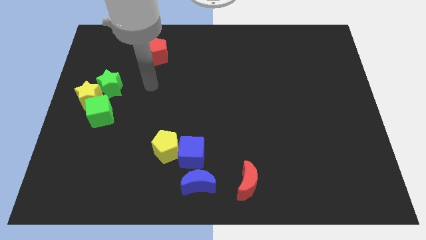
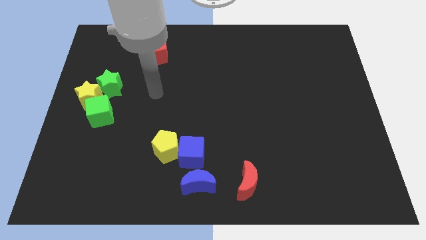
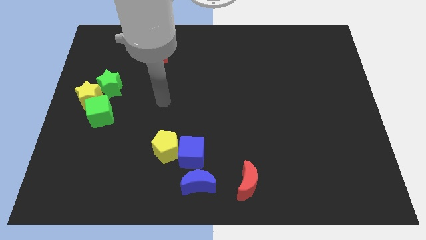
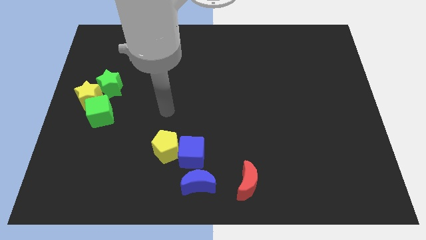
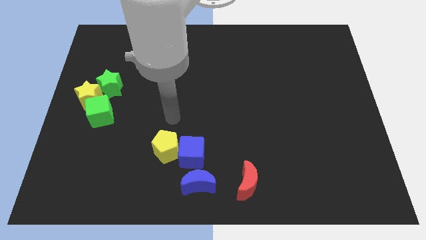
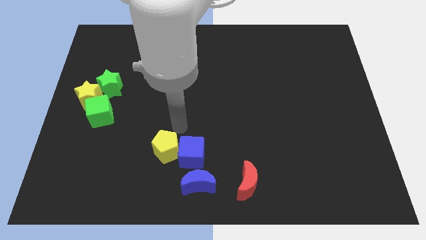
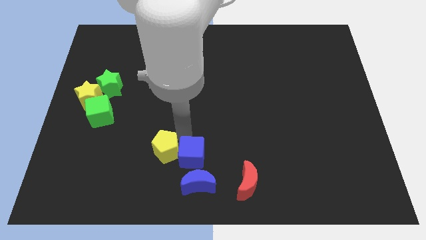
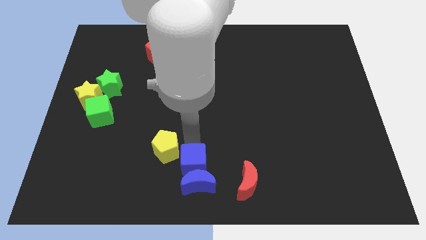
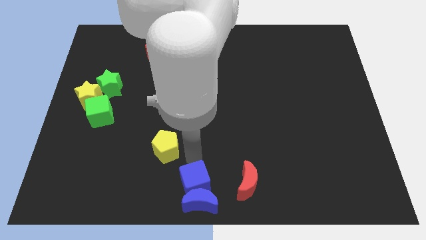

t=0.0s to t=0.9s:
pull the yellow pentagon apart from the blue cube

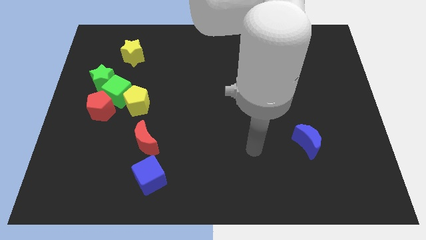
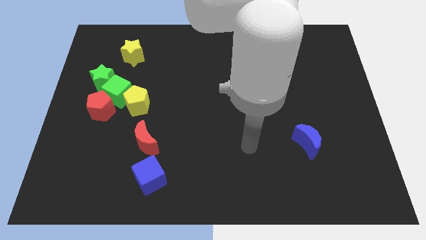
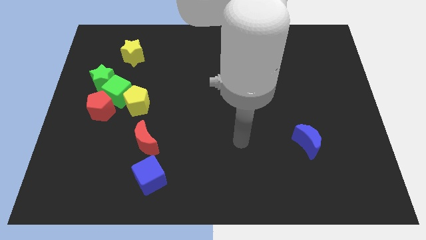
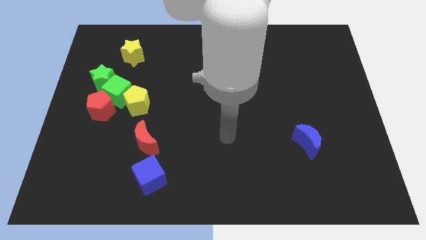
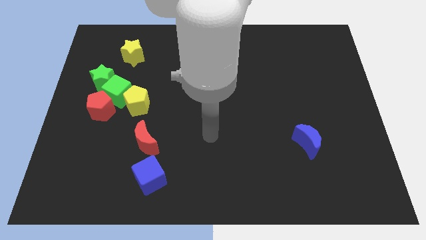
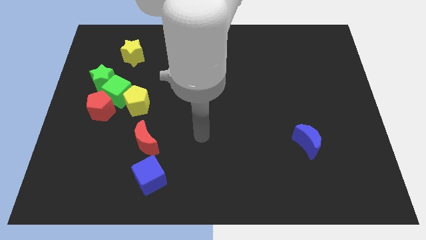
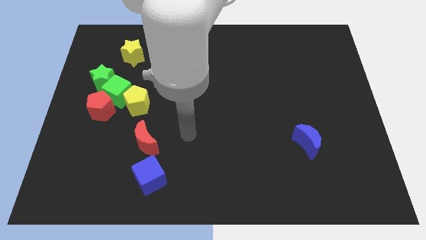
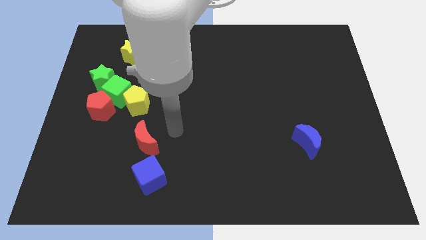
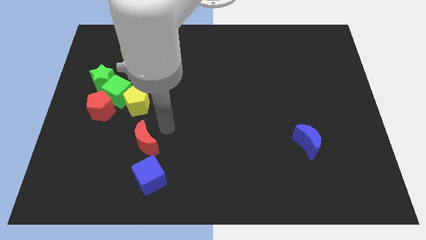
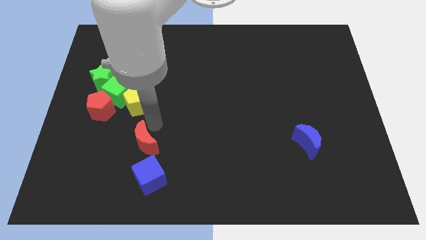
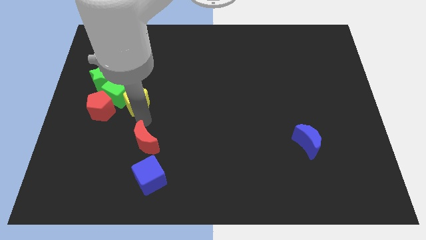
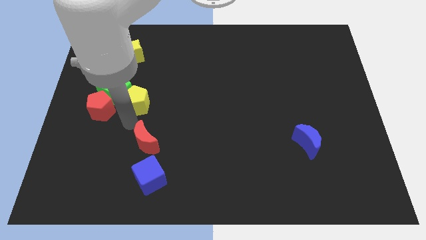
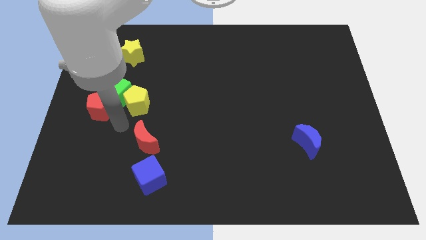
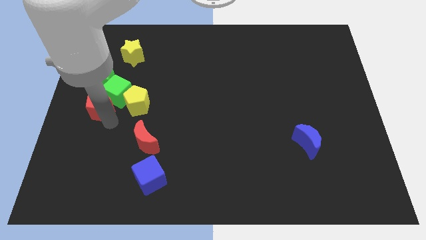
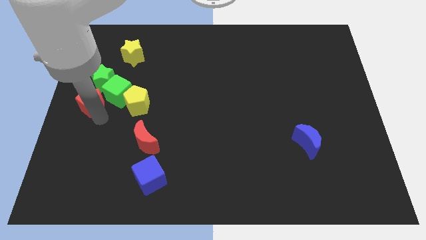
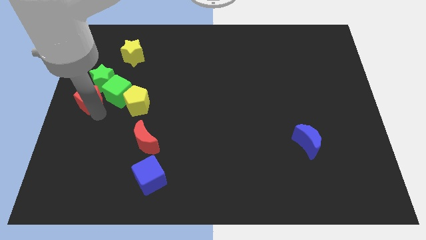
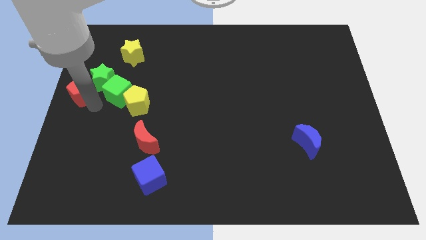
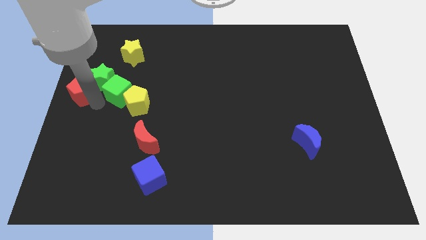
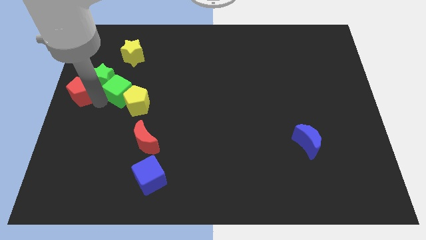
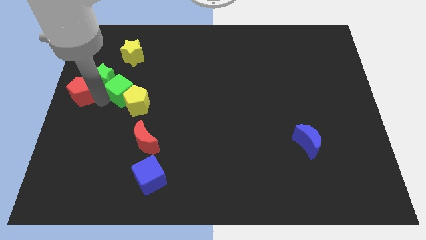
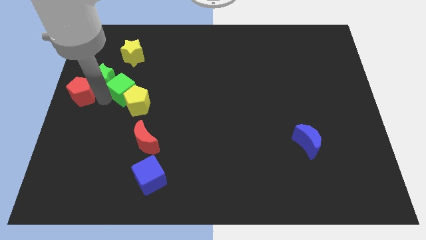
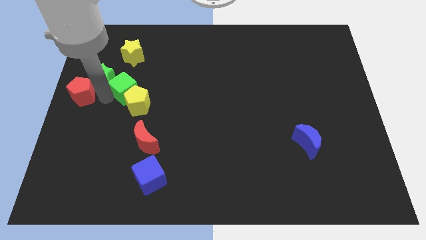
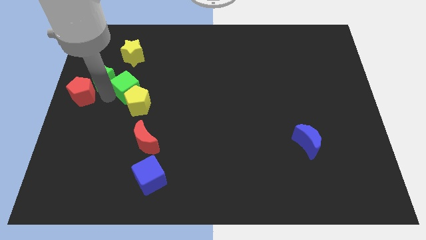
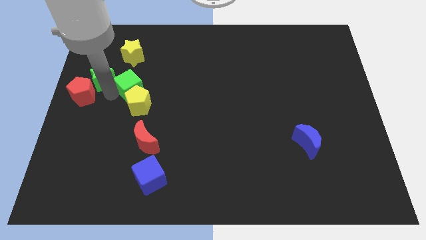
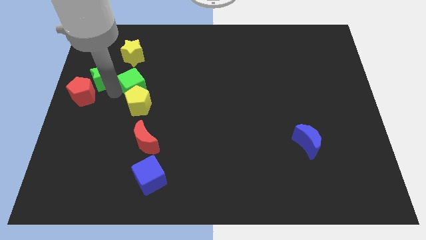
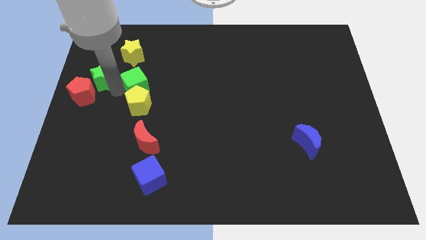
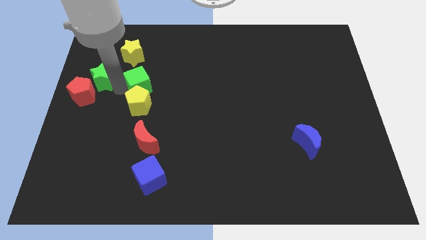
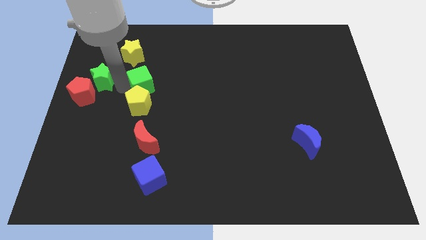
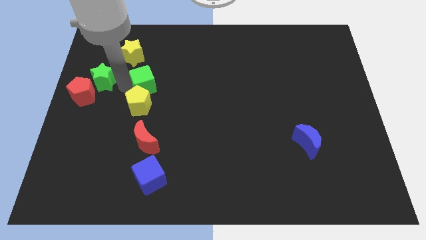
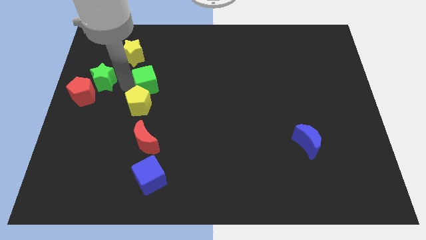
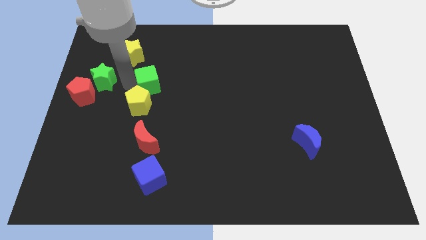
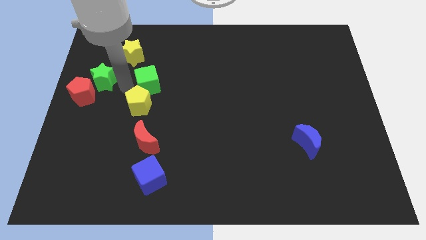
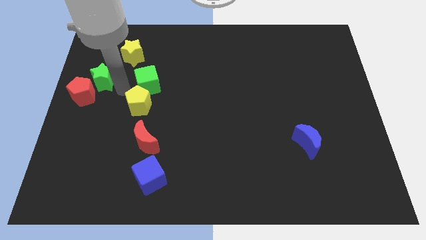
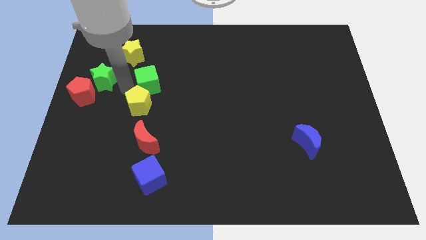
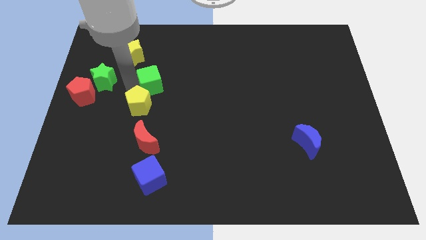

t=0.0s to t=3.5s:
separate the green cube from the group

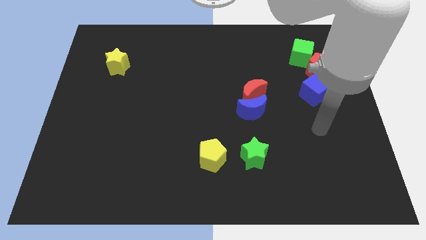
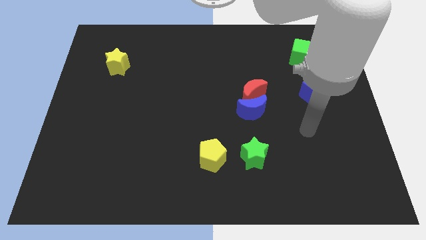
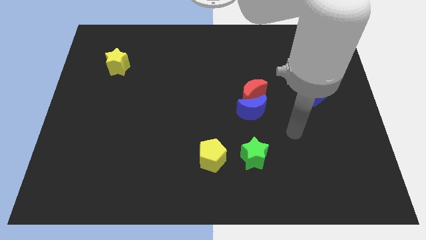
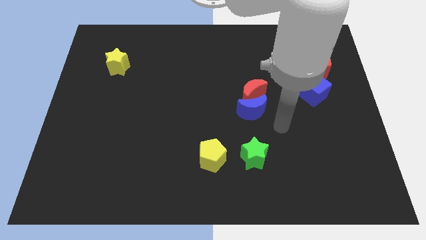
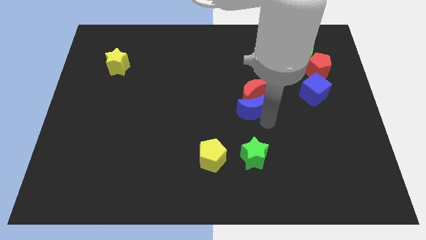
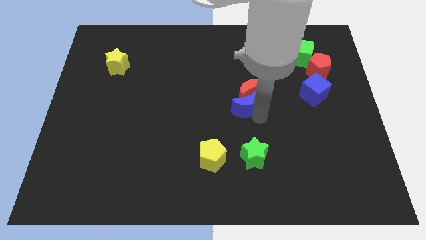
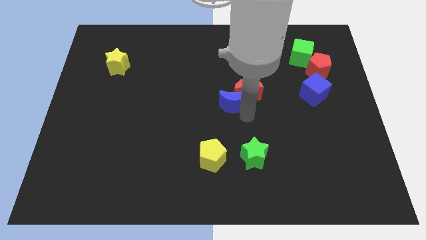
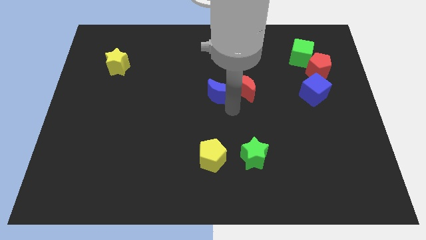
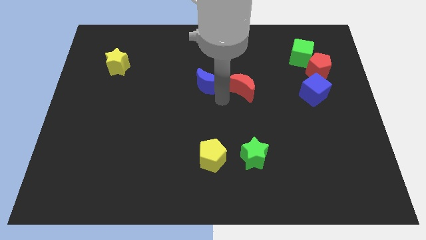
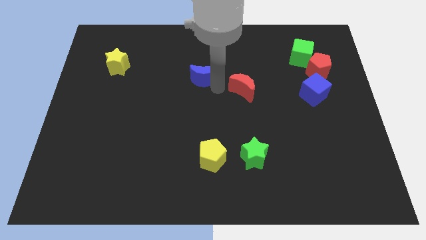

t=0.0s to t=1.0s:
separate the red moon from the blue moon

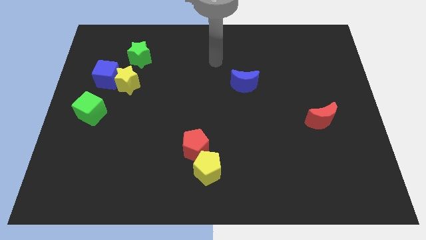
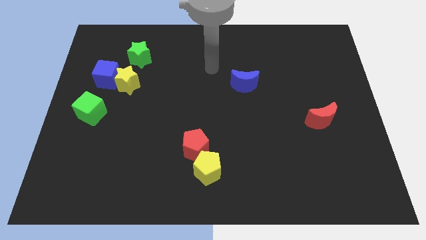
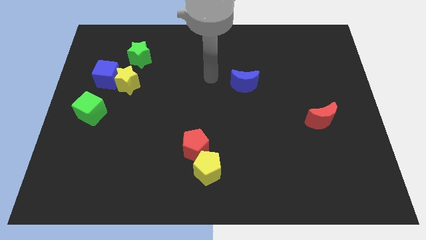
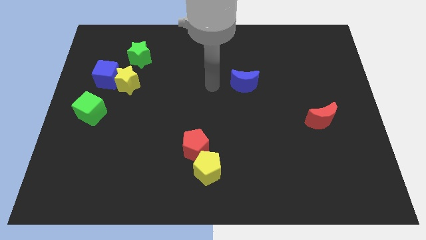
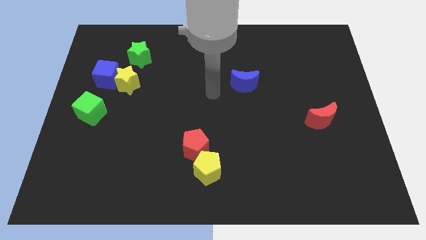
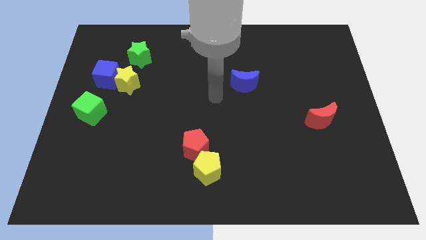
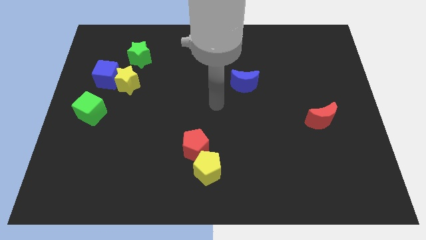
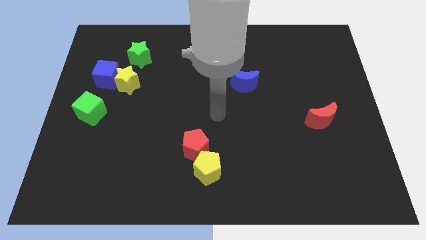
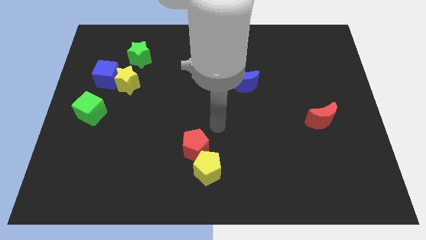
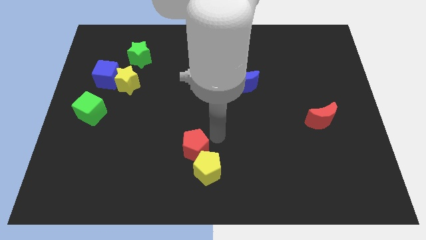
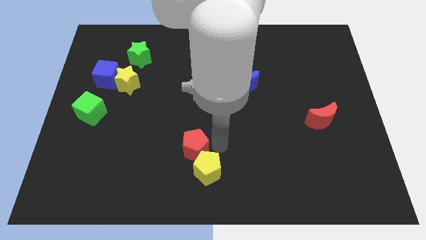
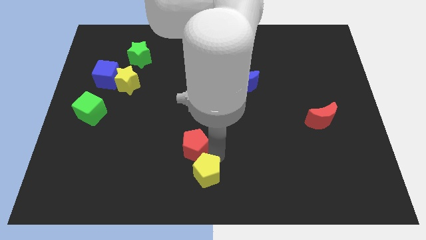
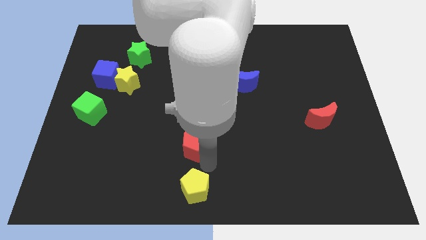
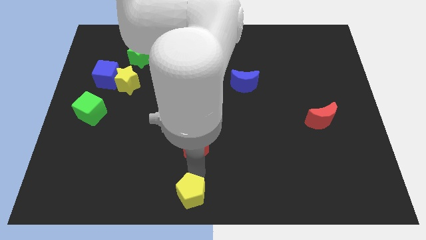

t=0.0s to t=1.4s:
pull the red pentagon apart from the yellow pentagon

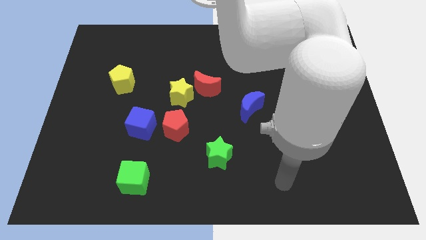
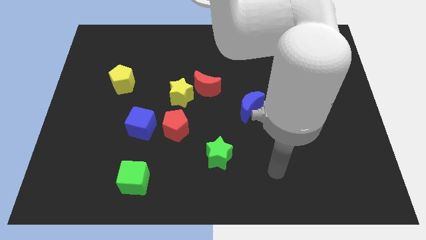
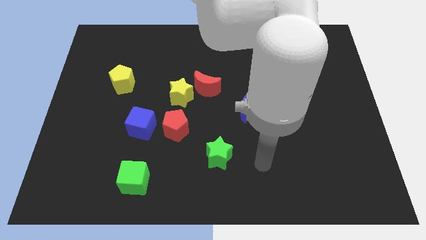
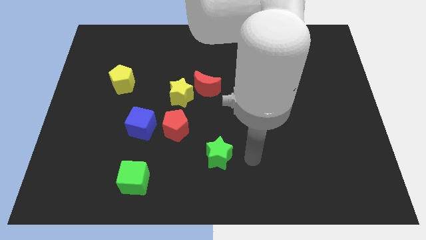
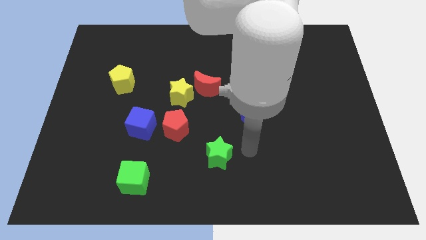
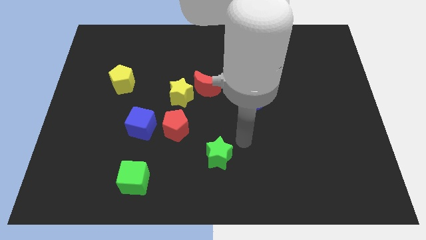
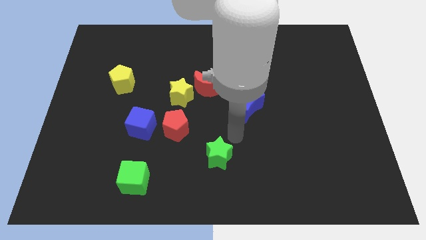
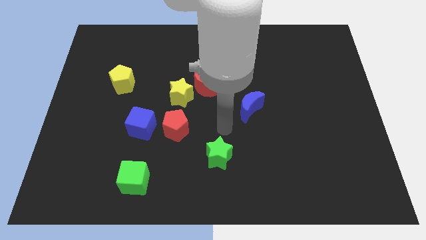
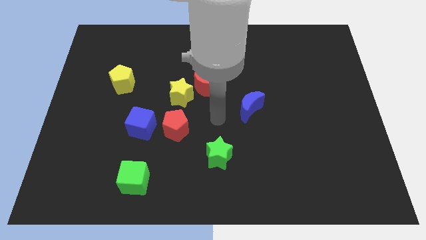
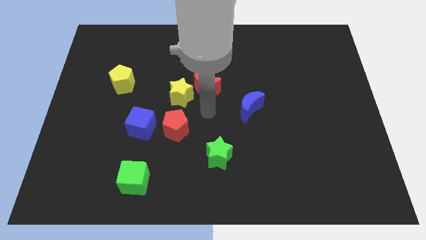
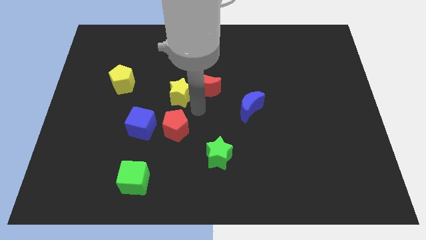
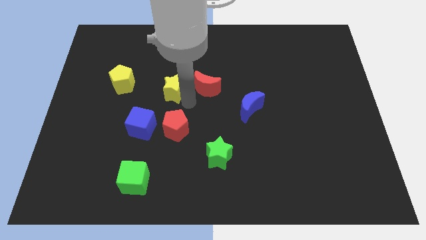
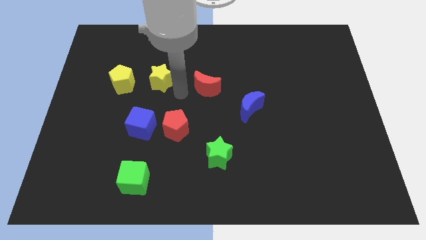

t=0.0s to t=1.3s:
pull the red moon apart from the yellow star

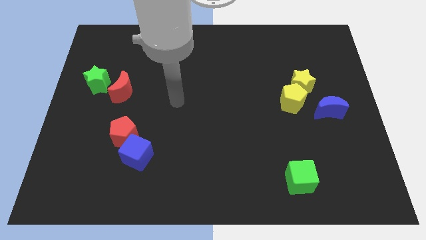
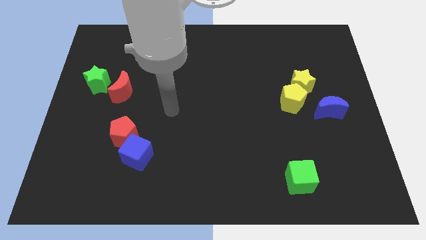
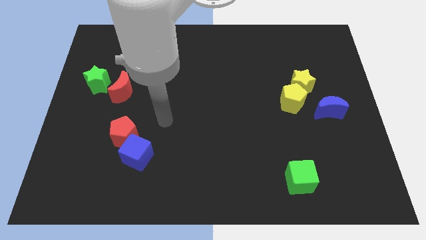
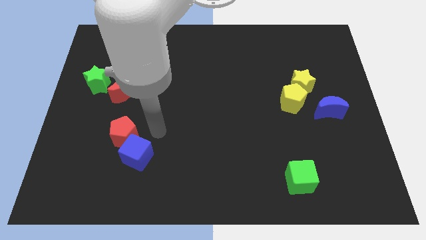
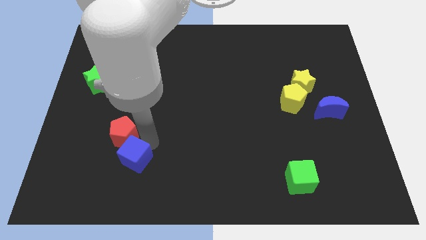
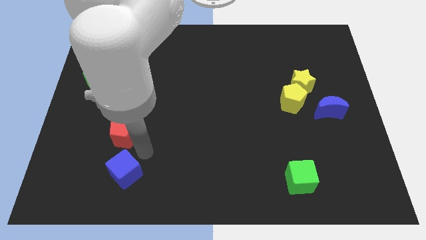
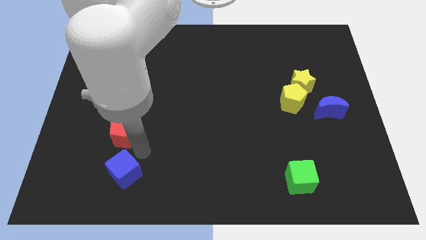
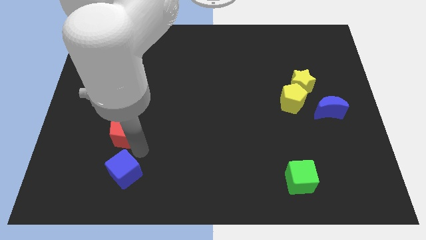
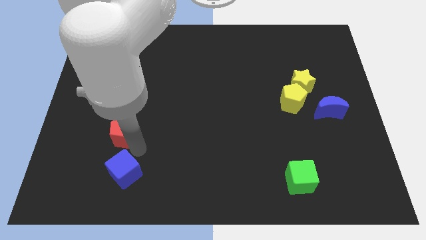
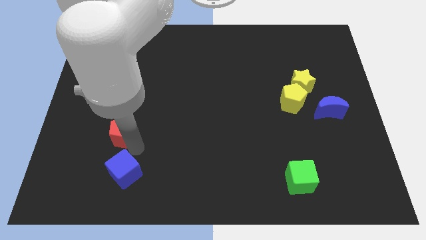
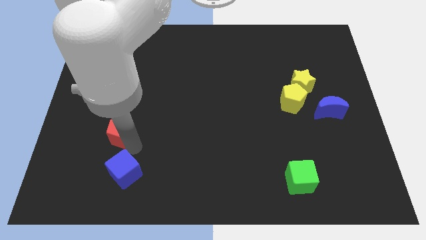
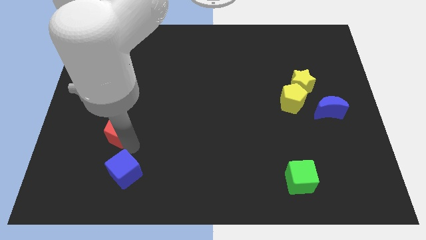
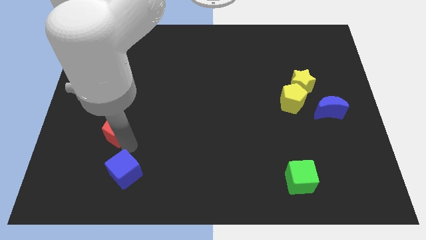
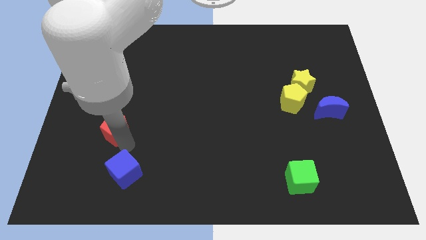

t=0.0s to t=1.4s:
separate the red pentagon from the blue cube
